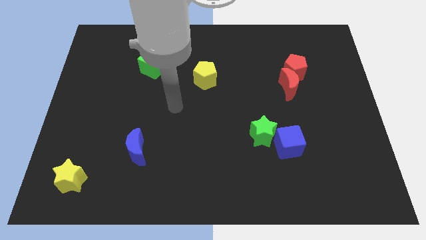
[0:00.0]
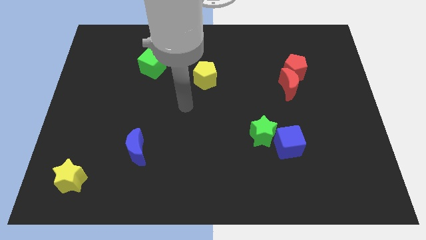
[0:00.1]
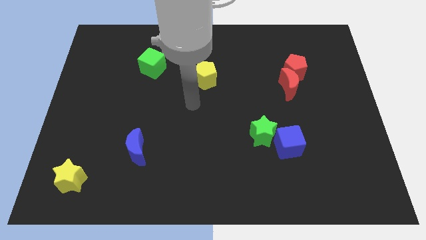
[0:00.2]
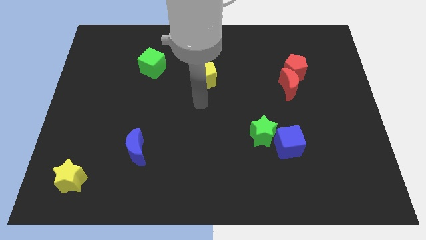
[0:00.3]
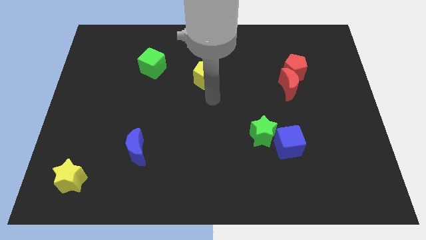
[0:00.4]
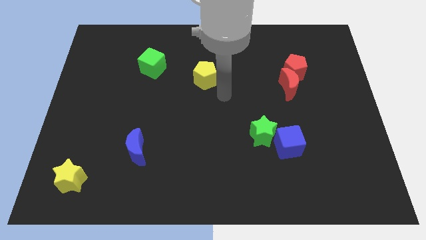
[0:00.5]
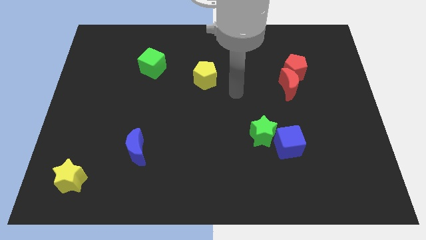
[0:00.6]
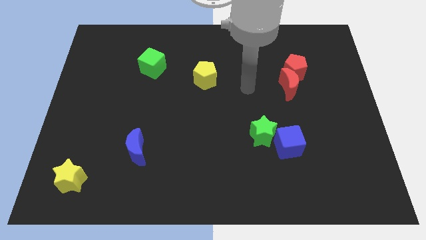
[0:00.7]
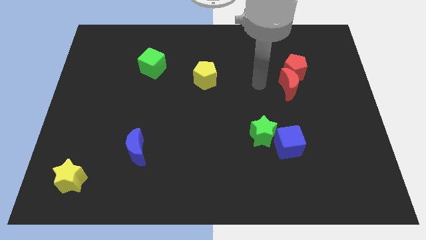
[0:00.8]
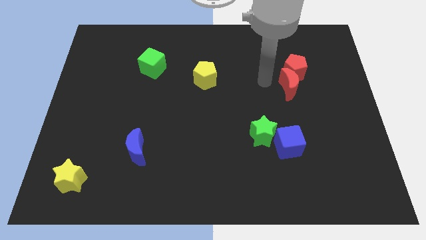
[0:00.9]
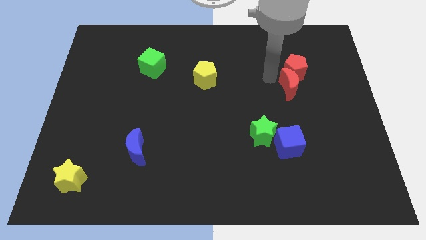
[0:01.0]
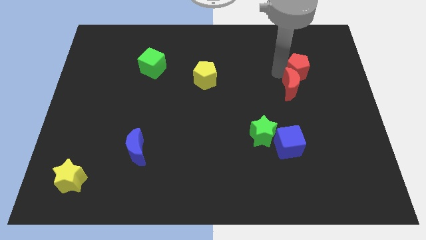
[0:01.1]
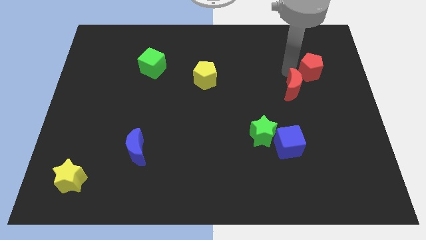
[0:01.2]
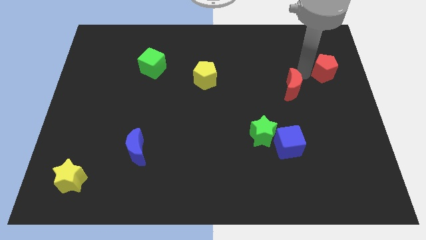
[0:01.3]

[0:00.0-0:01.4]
move the red moon away from the red pentagon

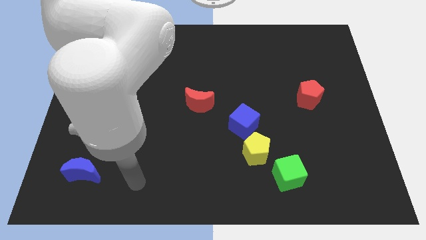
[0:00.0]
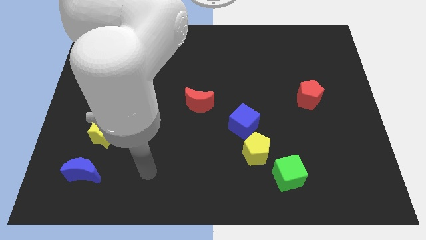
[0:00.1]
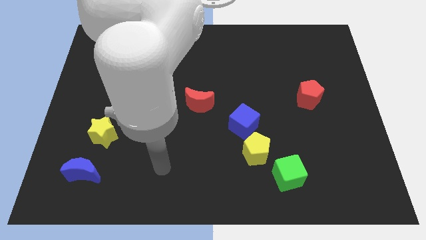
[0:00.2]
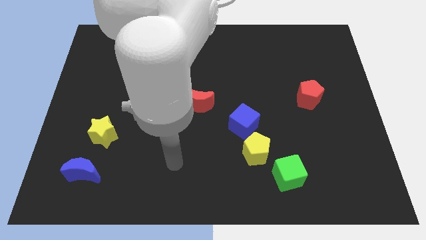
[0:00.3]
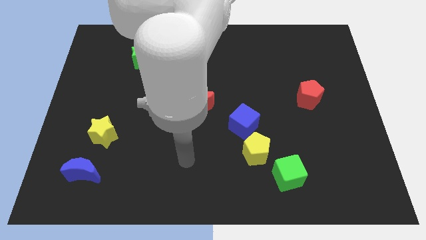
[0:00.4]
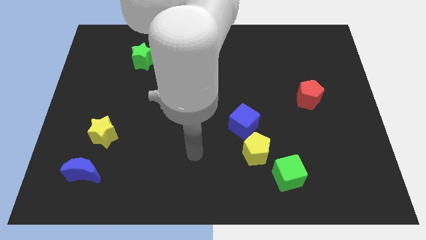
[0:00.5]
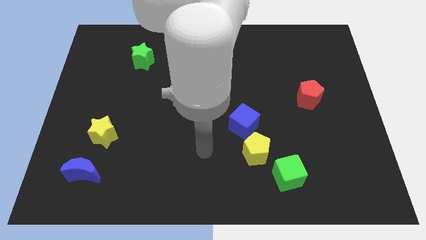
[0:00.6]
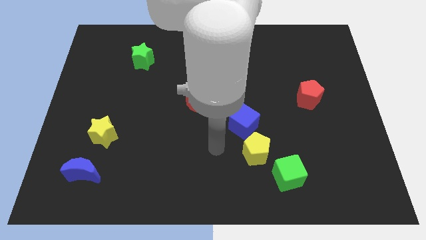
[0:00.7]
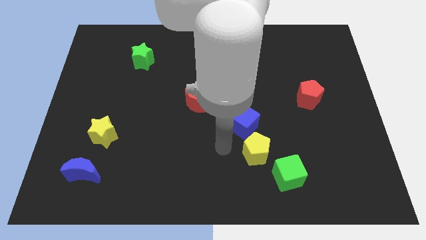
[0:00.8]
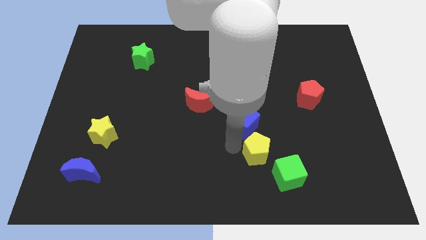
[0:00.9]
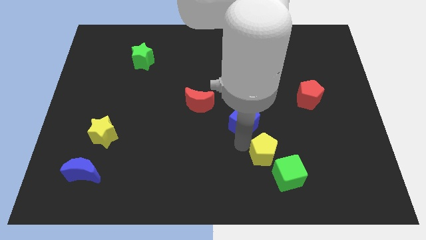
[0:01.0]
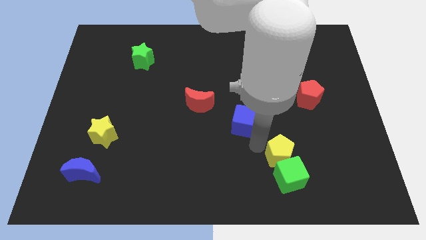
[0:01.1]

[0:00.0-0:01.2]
separate the blue cube from the yellow pentagon

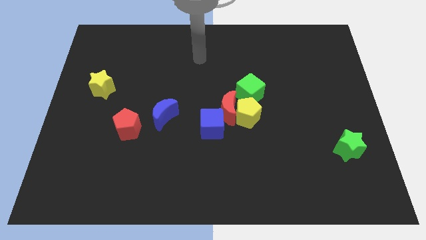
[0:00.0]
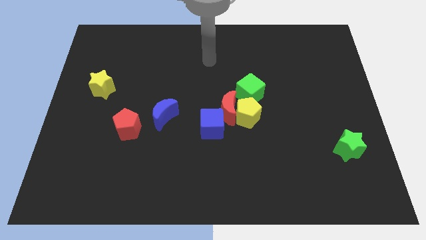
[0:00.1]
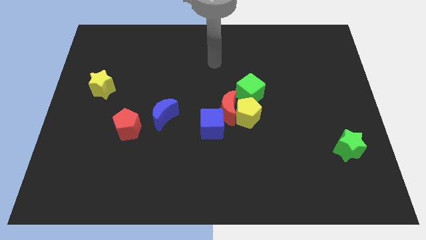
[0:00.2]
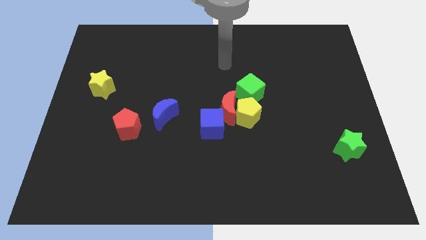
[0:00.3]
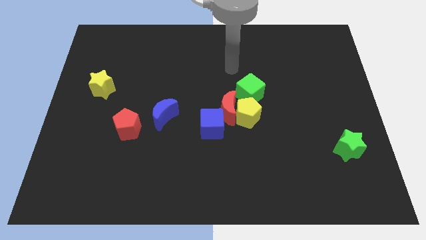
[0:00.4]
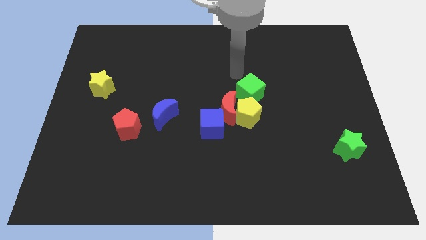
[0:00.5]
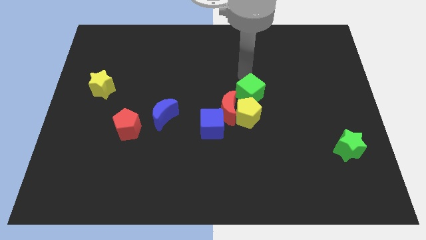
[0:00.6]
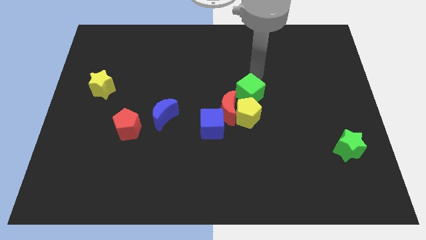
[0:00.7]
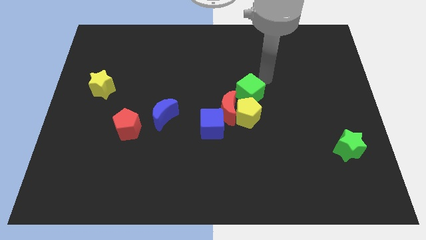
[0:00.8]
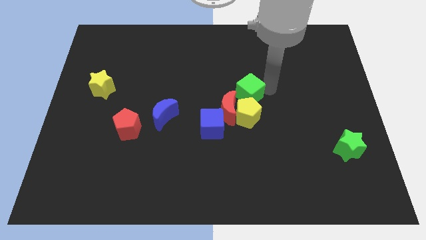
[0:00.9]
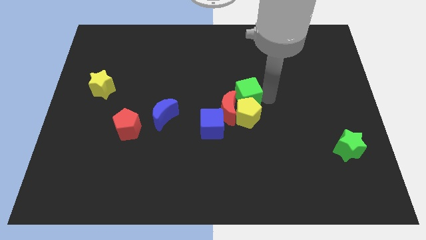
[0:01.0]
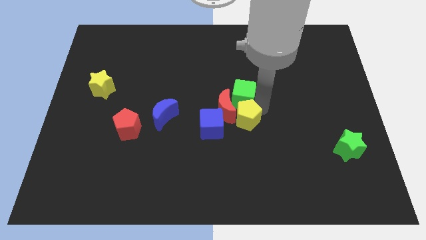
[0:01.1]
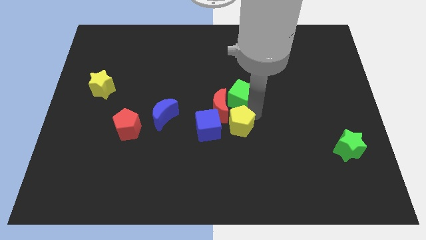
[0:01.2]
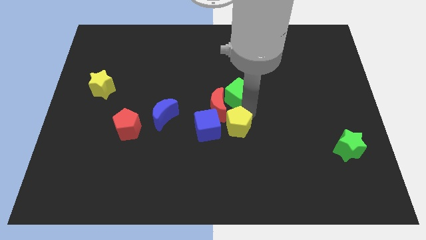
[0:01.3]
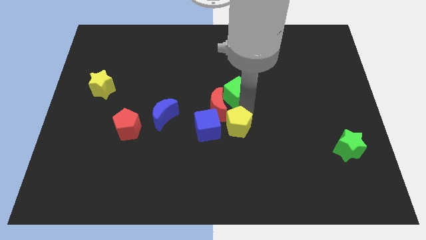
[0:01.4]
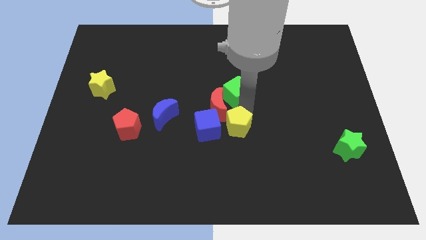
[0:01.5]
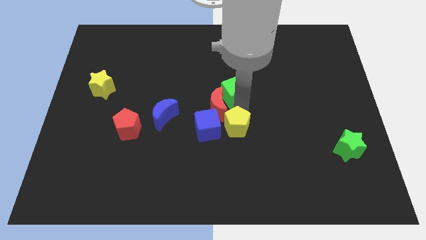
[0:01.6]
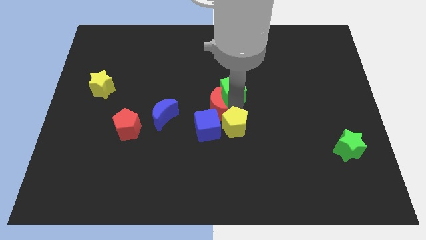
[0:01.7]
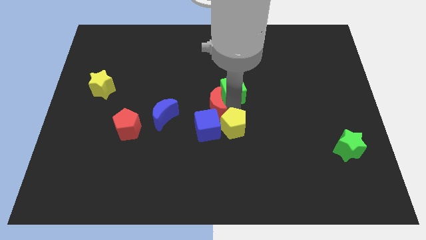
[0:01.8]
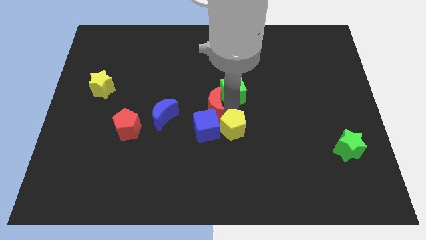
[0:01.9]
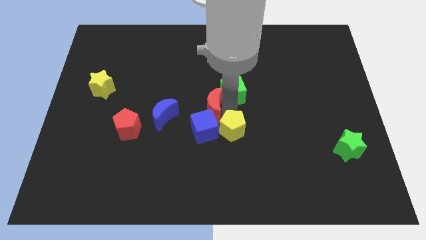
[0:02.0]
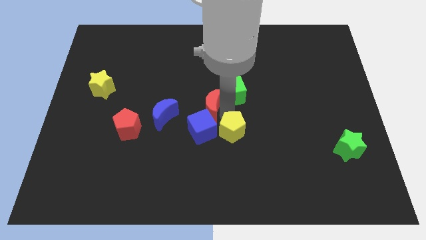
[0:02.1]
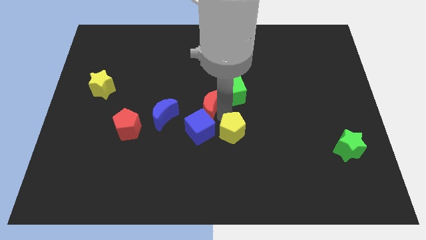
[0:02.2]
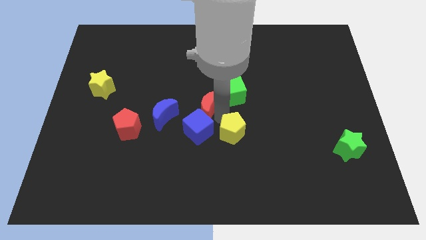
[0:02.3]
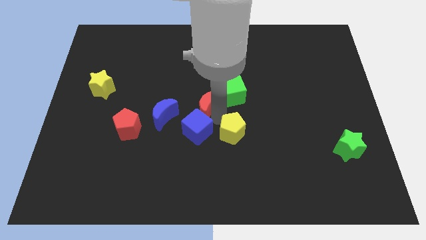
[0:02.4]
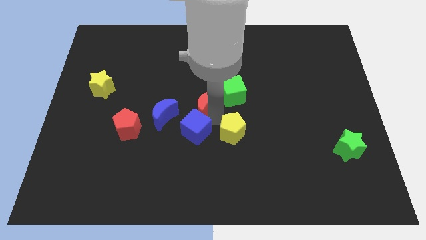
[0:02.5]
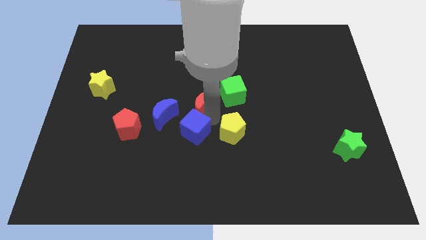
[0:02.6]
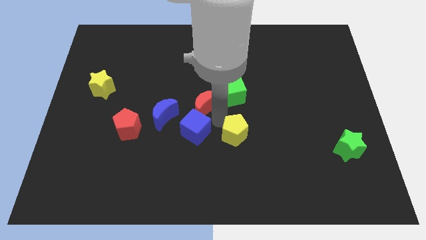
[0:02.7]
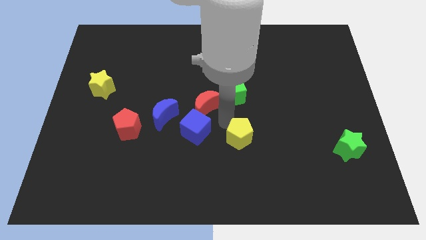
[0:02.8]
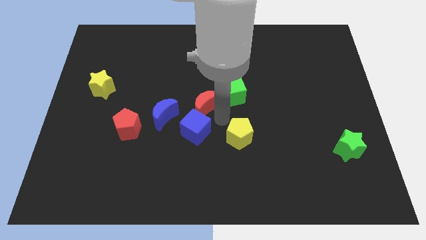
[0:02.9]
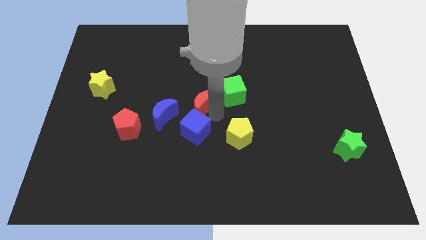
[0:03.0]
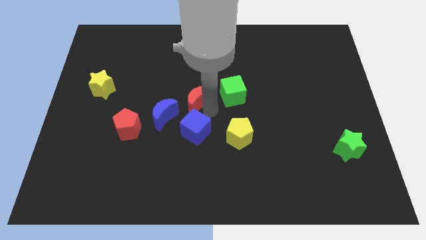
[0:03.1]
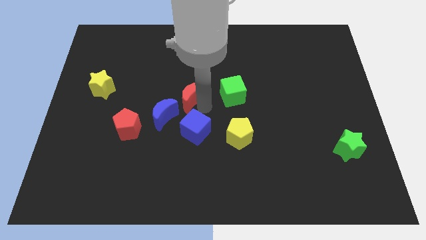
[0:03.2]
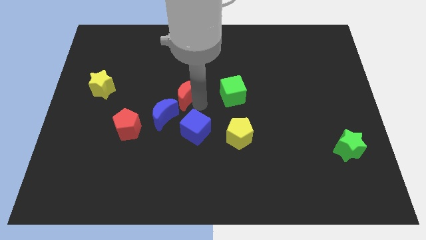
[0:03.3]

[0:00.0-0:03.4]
move the red moon away from the clump

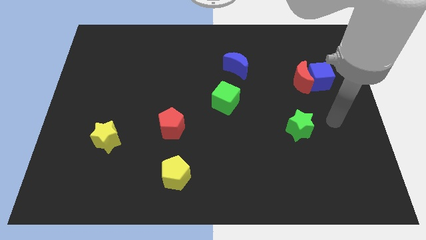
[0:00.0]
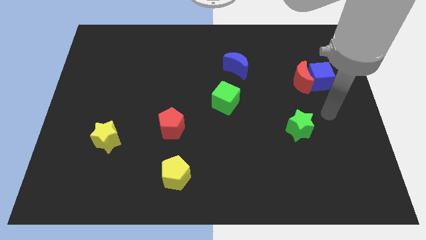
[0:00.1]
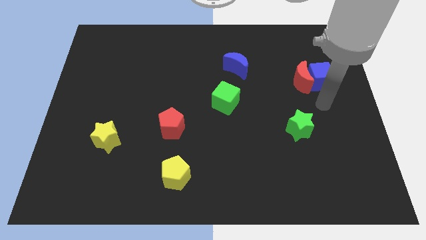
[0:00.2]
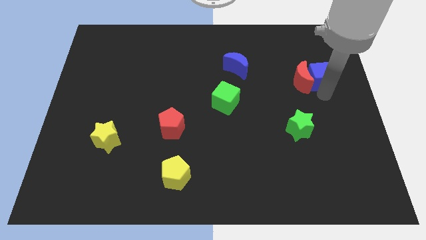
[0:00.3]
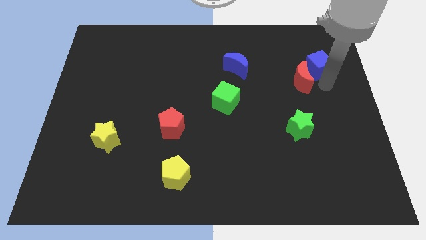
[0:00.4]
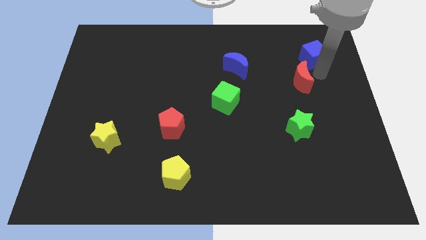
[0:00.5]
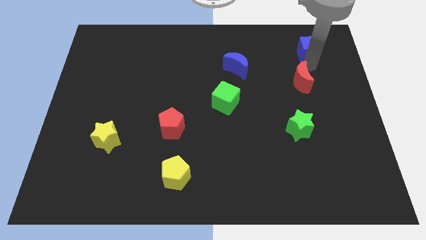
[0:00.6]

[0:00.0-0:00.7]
pull the red moon apart from the blue cube

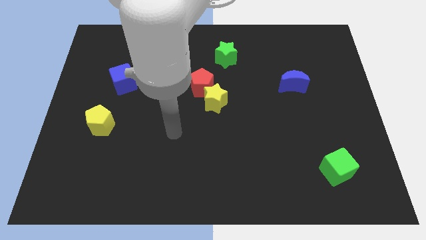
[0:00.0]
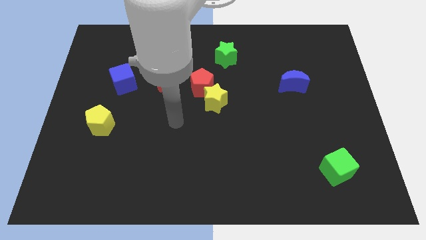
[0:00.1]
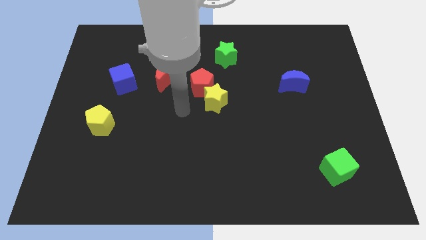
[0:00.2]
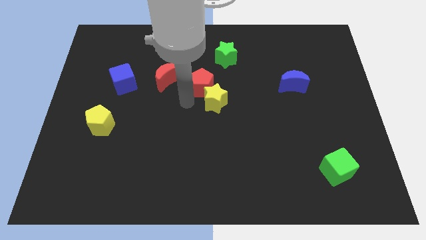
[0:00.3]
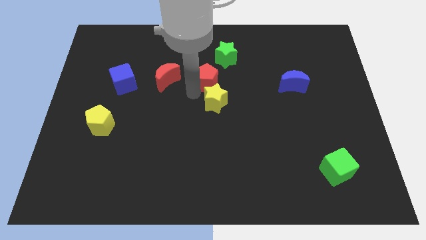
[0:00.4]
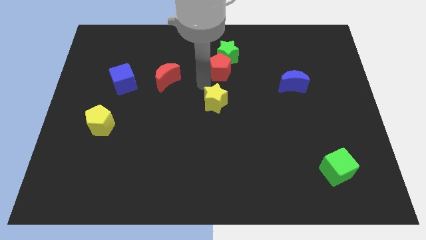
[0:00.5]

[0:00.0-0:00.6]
pull the yellow star apart from the red pentagon

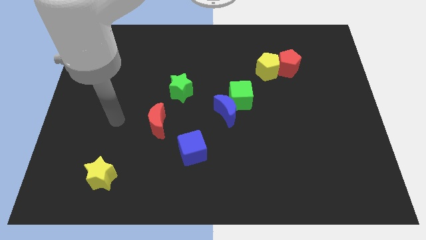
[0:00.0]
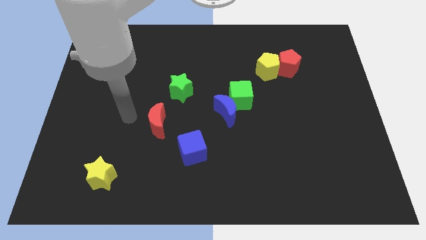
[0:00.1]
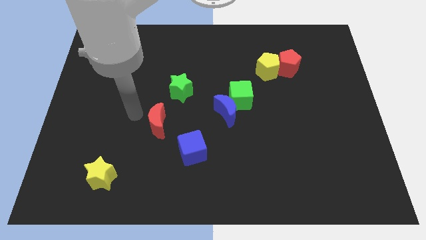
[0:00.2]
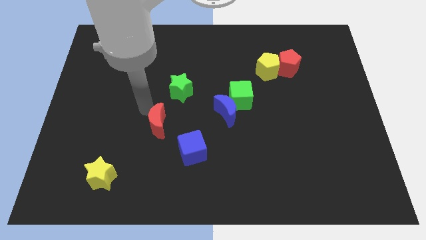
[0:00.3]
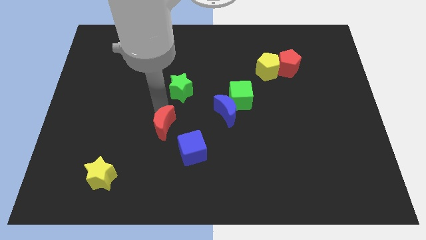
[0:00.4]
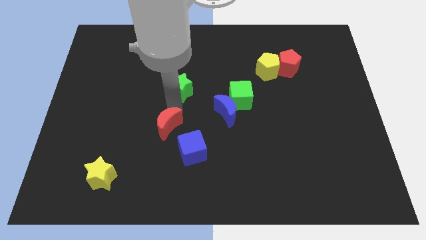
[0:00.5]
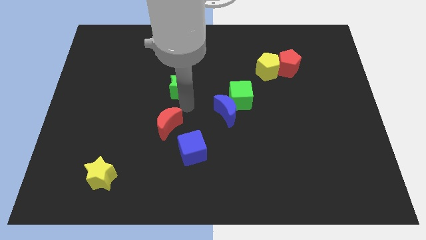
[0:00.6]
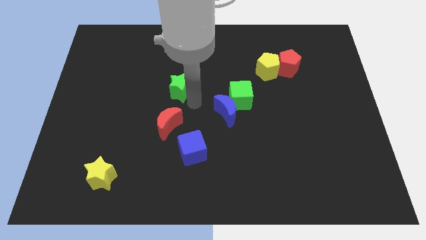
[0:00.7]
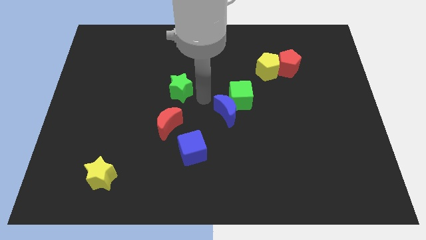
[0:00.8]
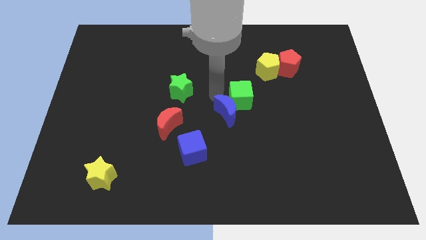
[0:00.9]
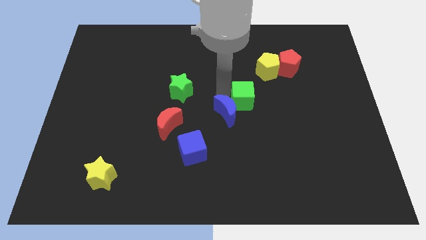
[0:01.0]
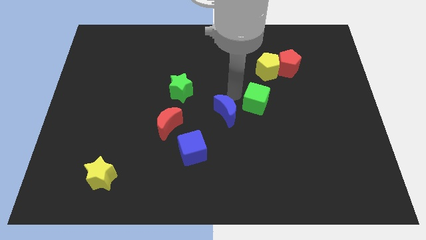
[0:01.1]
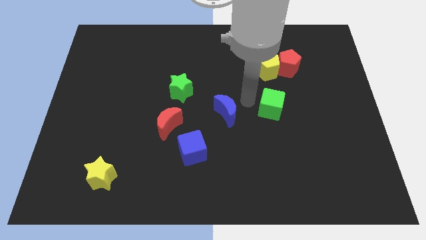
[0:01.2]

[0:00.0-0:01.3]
move the blue moon away from the green cube

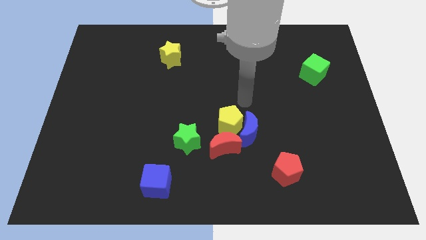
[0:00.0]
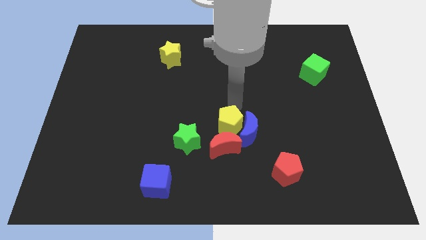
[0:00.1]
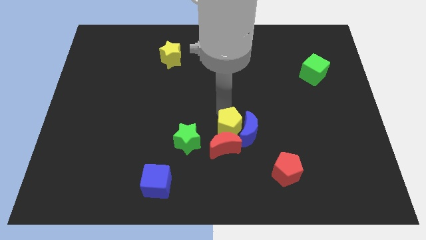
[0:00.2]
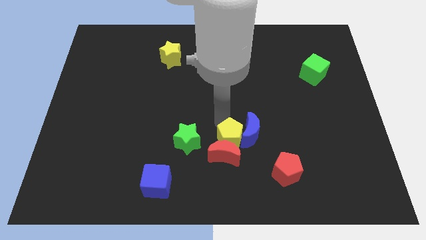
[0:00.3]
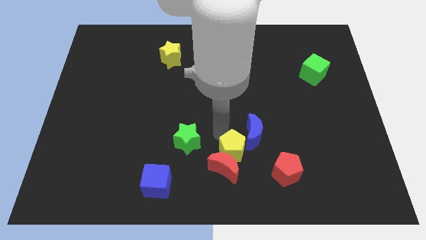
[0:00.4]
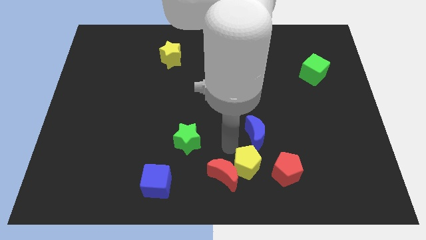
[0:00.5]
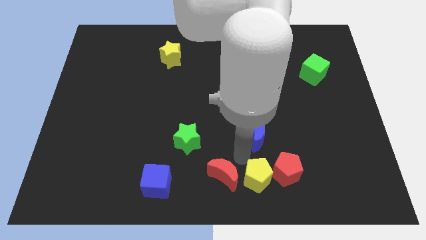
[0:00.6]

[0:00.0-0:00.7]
separate the blue moon from the yellow pentagon and red moon
